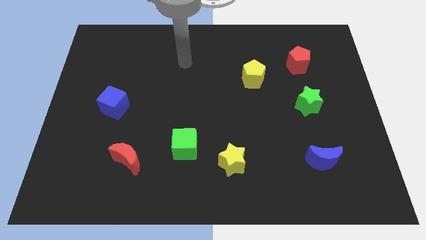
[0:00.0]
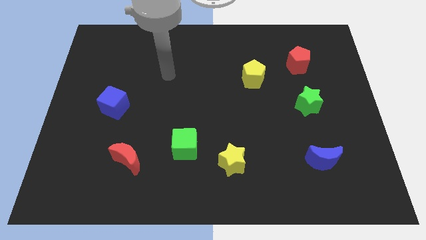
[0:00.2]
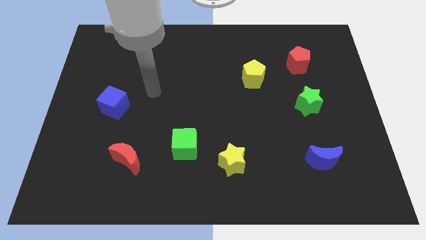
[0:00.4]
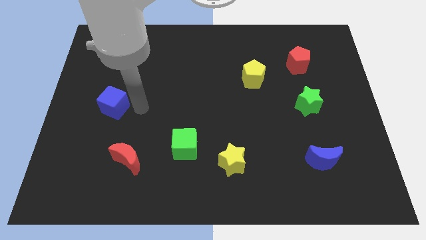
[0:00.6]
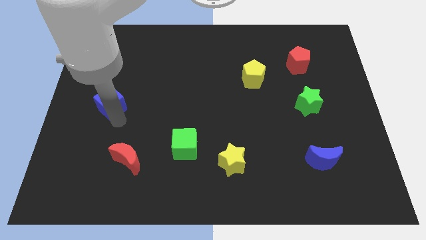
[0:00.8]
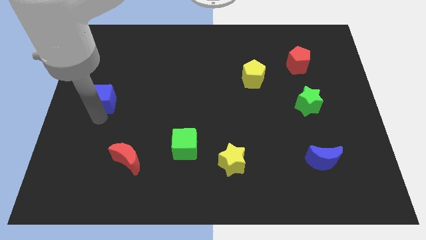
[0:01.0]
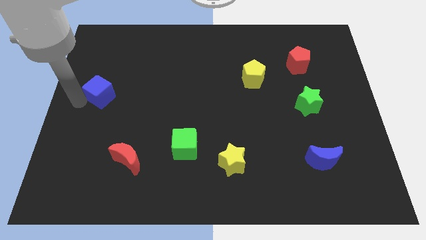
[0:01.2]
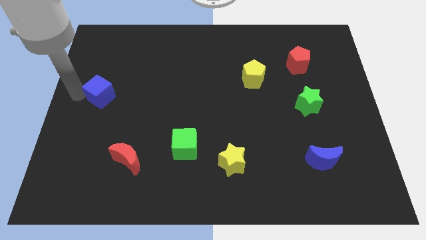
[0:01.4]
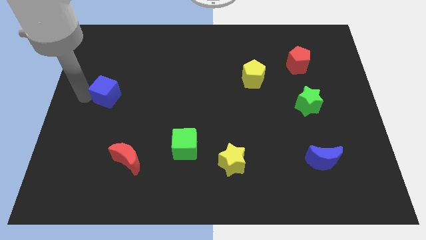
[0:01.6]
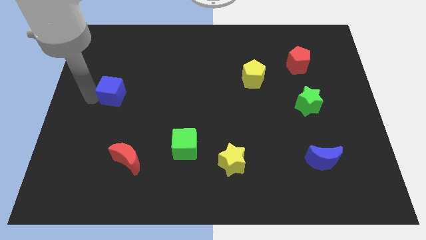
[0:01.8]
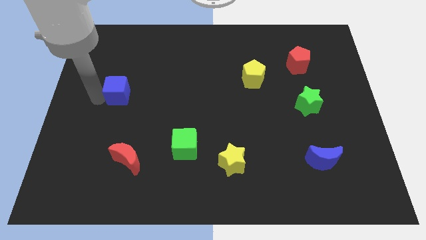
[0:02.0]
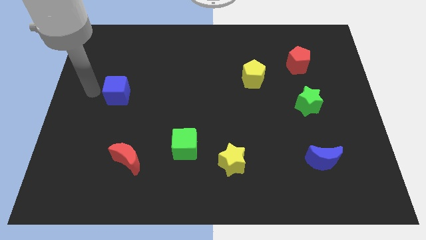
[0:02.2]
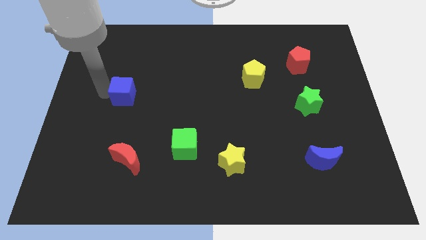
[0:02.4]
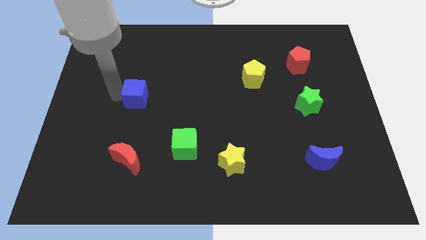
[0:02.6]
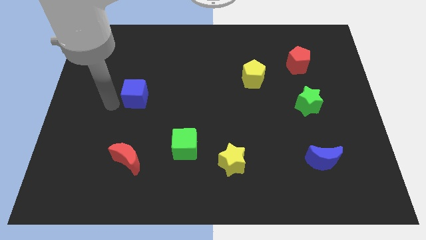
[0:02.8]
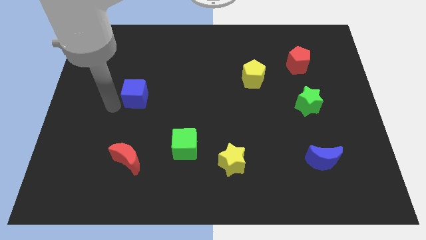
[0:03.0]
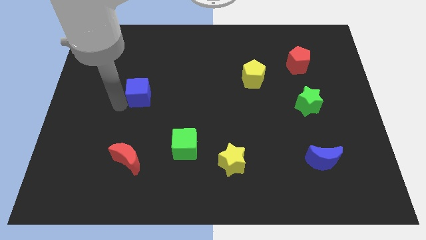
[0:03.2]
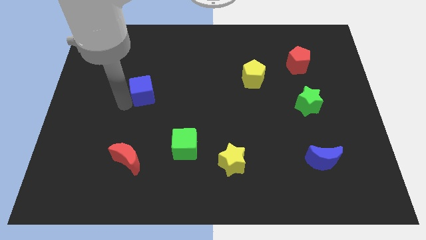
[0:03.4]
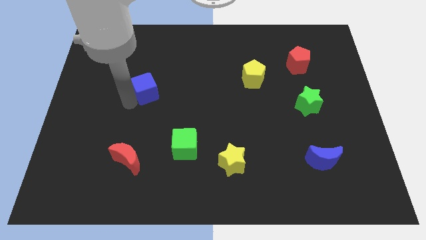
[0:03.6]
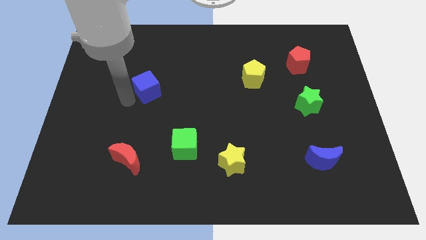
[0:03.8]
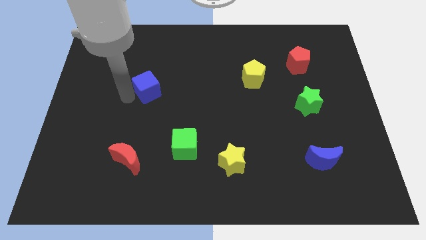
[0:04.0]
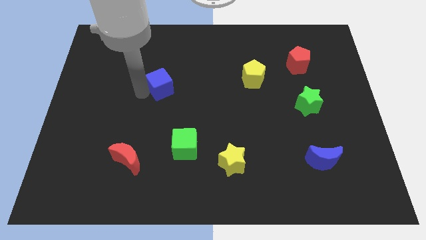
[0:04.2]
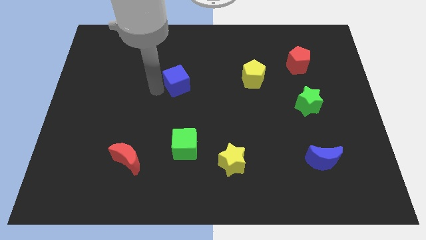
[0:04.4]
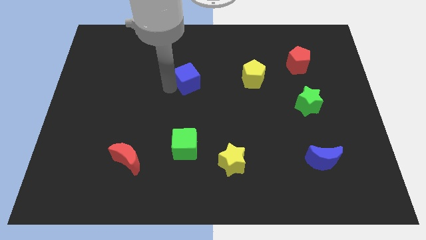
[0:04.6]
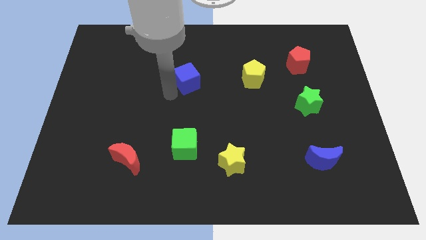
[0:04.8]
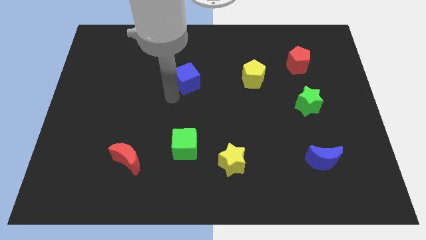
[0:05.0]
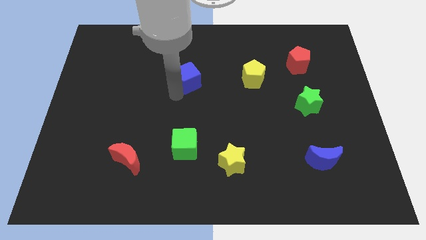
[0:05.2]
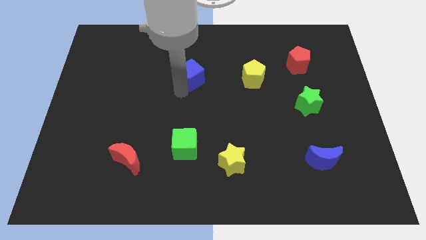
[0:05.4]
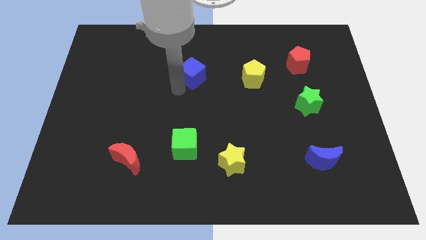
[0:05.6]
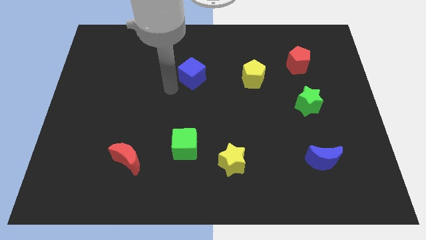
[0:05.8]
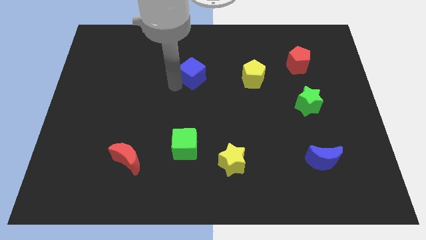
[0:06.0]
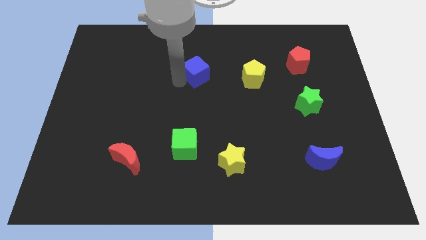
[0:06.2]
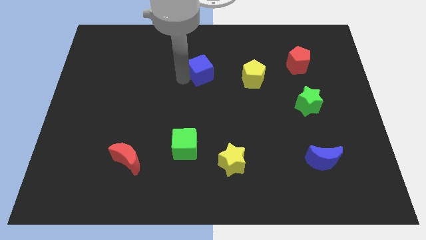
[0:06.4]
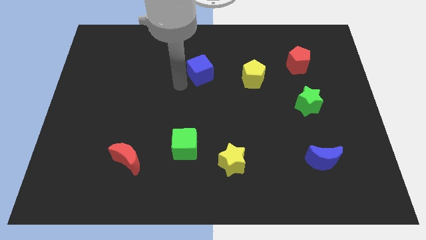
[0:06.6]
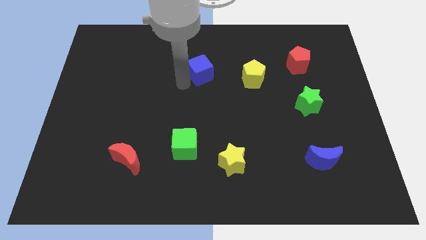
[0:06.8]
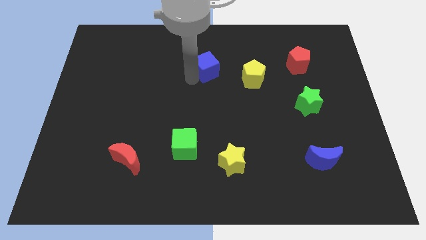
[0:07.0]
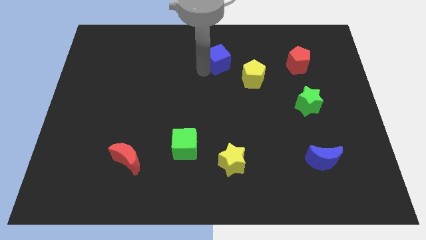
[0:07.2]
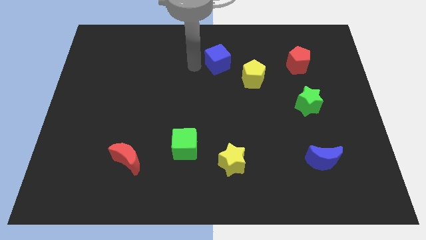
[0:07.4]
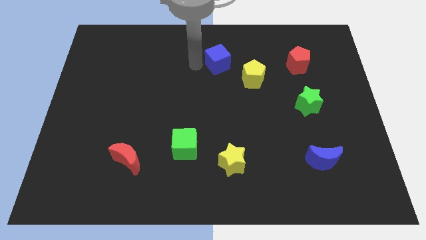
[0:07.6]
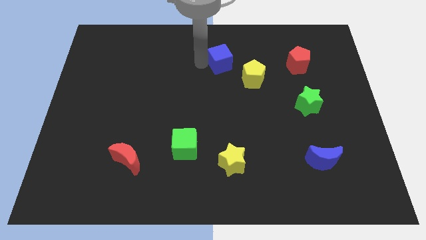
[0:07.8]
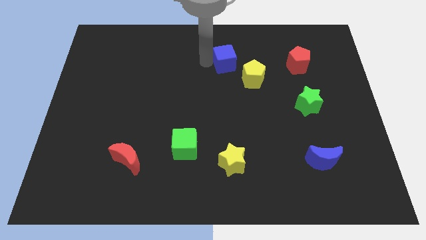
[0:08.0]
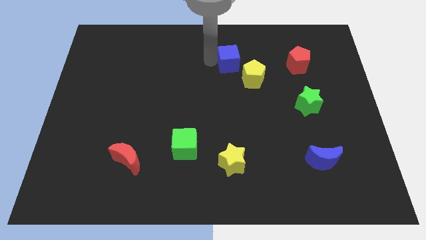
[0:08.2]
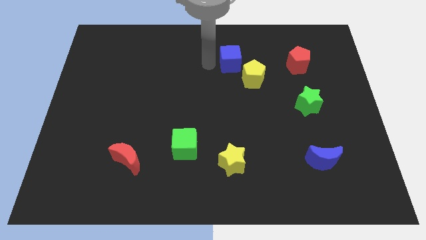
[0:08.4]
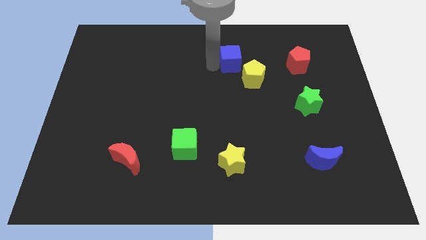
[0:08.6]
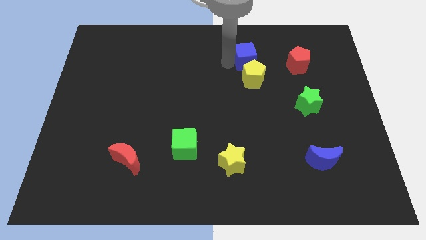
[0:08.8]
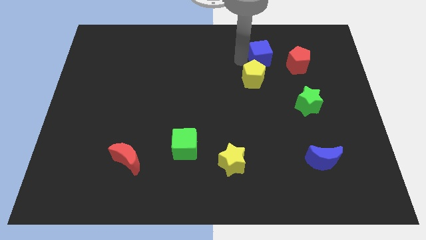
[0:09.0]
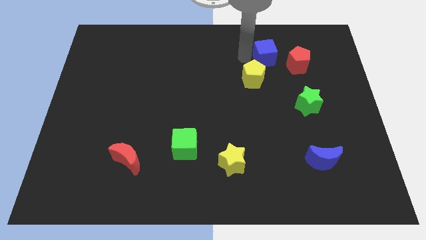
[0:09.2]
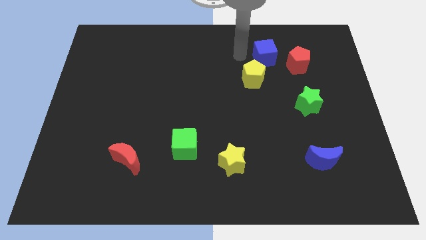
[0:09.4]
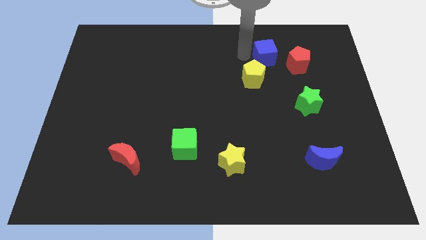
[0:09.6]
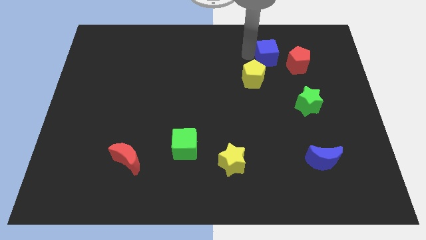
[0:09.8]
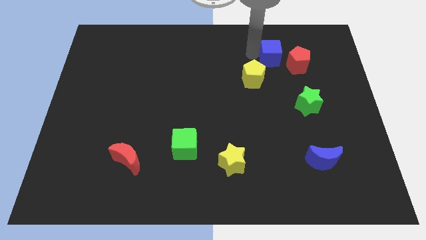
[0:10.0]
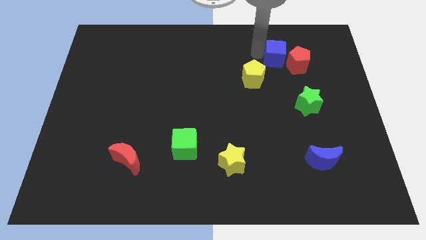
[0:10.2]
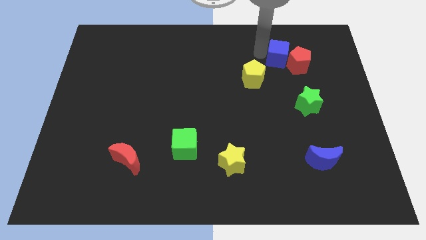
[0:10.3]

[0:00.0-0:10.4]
move the blue cube next to the red pentagon

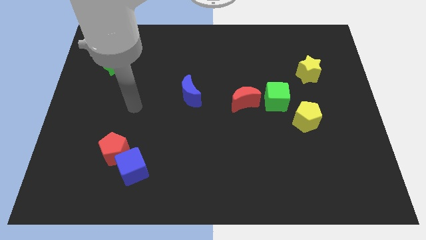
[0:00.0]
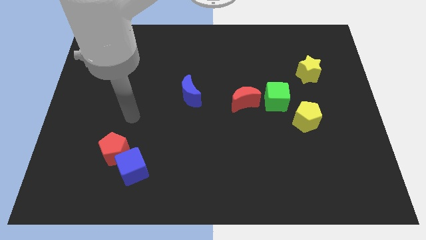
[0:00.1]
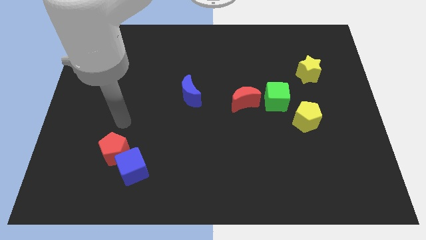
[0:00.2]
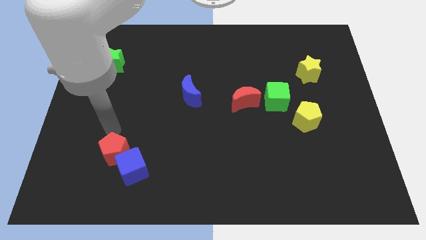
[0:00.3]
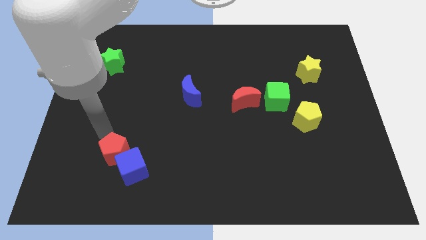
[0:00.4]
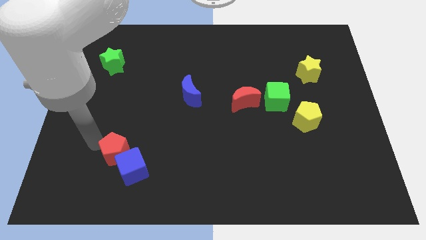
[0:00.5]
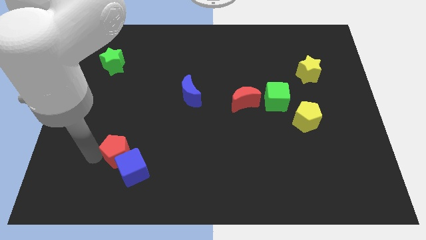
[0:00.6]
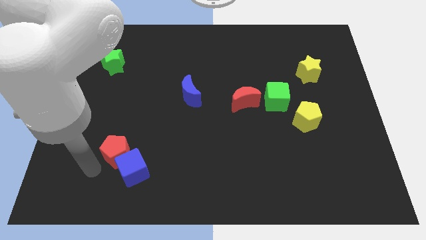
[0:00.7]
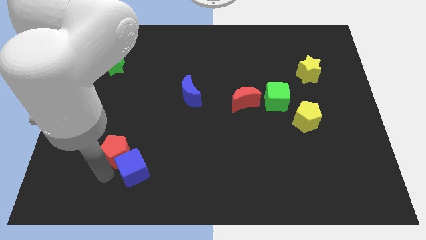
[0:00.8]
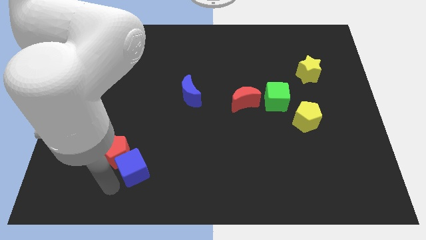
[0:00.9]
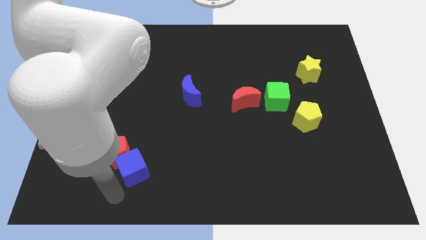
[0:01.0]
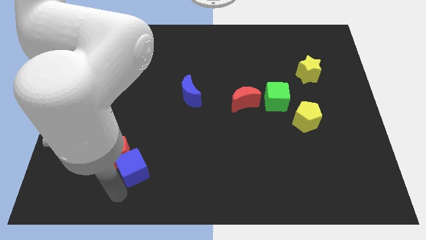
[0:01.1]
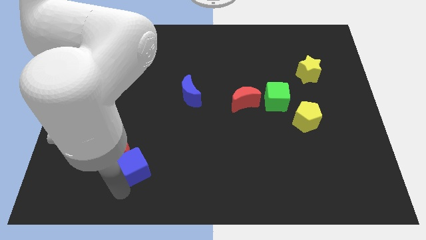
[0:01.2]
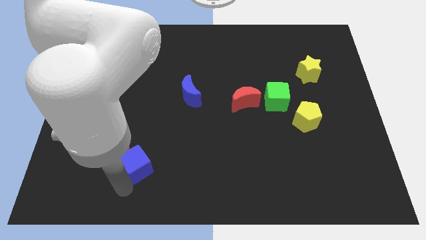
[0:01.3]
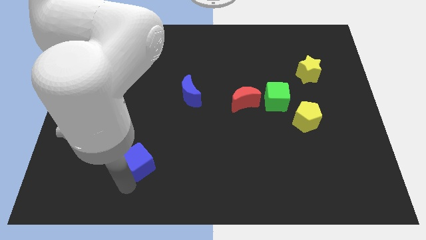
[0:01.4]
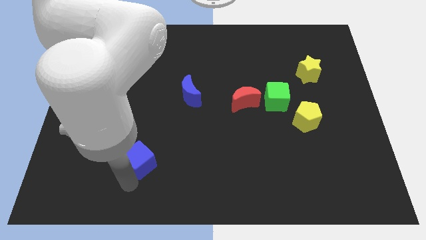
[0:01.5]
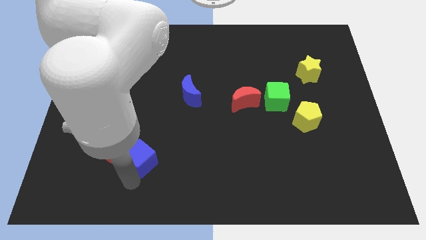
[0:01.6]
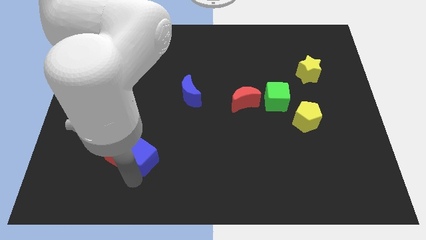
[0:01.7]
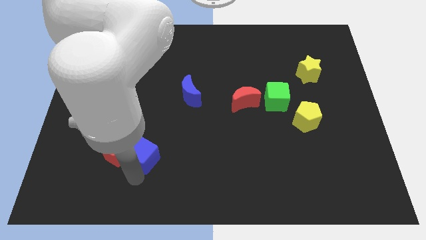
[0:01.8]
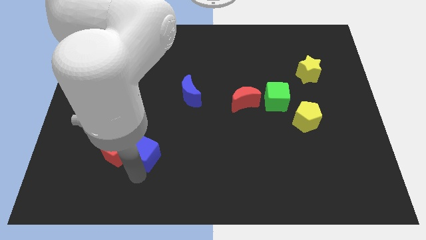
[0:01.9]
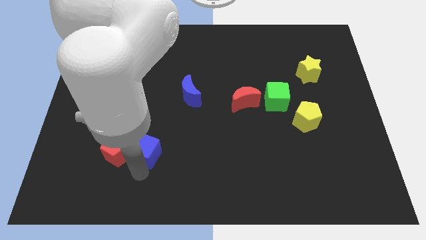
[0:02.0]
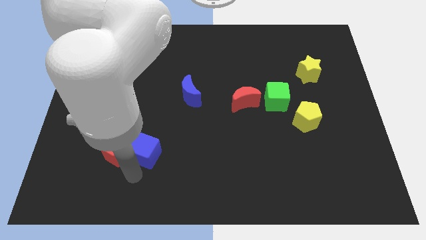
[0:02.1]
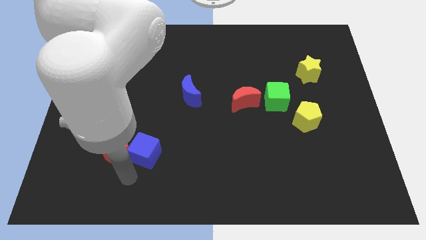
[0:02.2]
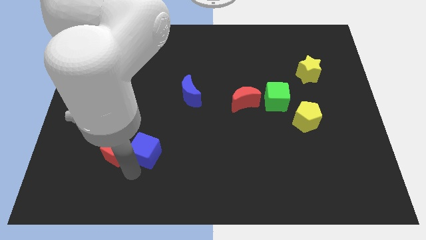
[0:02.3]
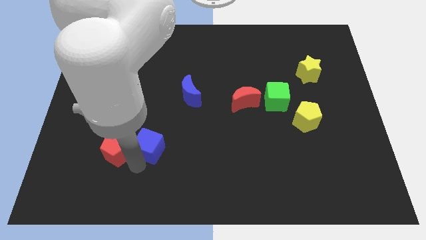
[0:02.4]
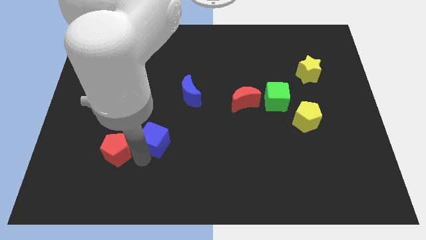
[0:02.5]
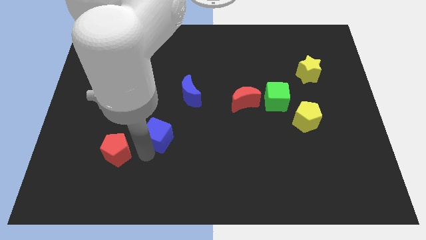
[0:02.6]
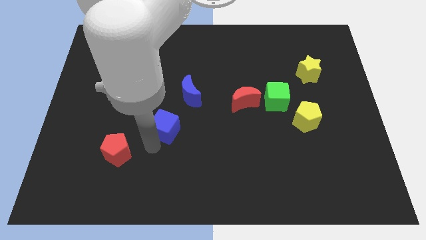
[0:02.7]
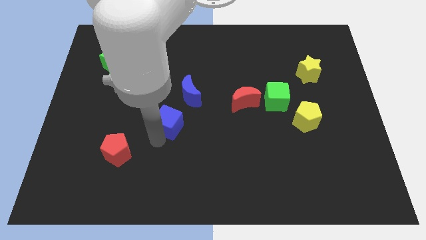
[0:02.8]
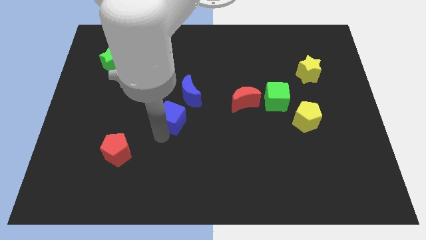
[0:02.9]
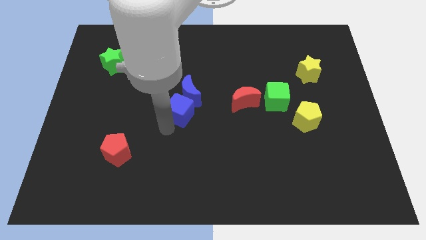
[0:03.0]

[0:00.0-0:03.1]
put the blue cube to the blue moon

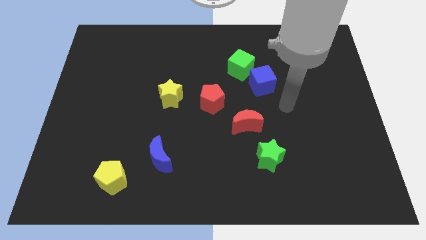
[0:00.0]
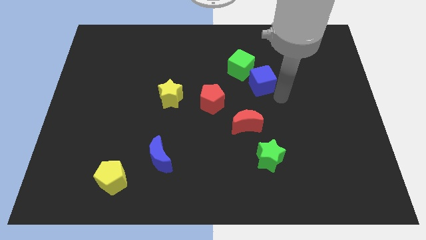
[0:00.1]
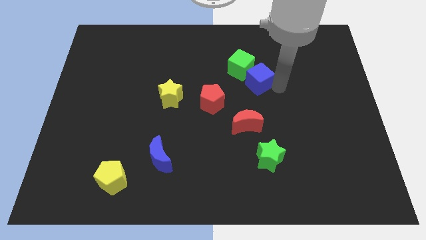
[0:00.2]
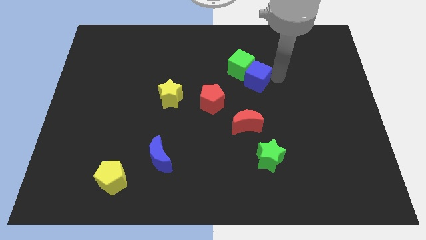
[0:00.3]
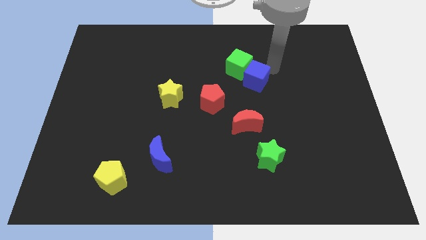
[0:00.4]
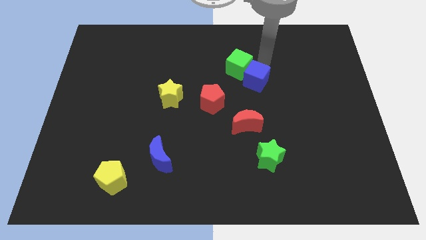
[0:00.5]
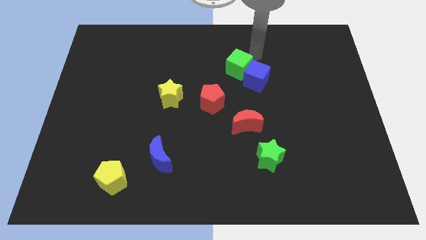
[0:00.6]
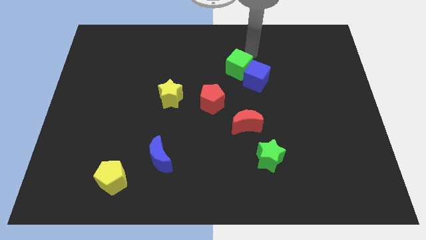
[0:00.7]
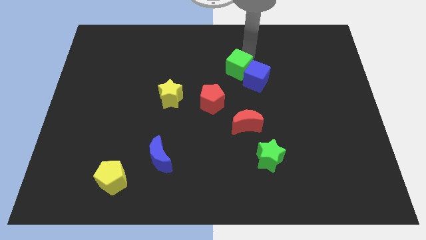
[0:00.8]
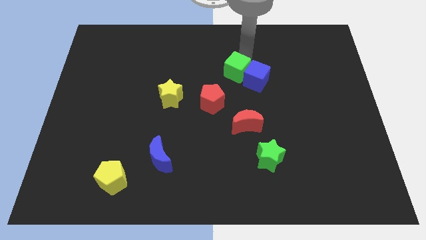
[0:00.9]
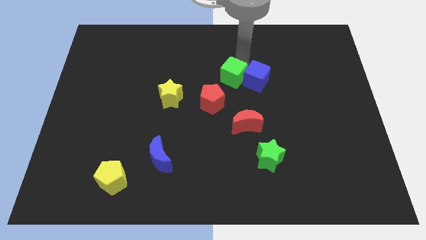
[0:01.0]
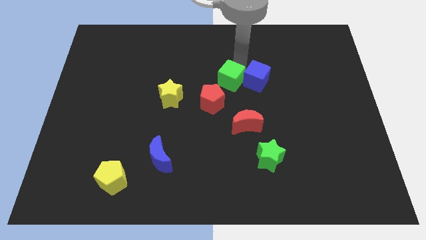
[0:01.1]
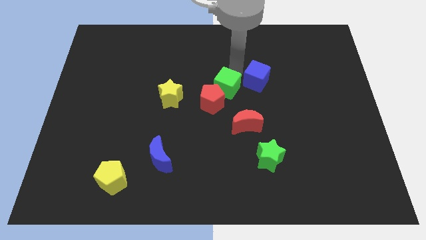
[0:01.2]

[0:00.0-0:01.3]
put the green cube to the red pentagon
